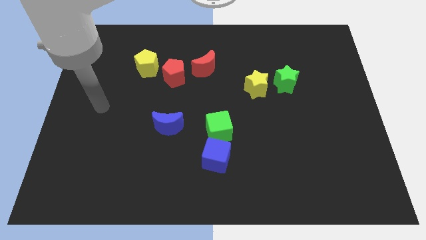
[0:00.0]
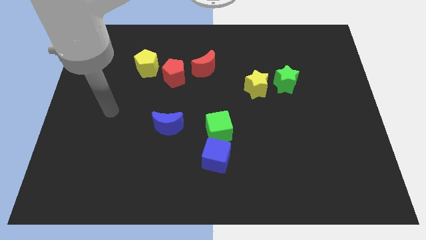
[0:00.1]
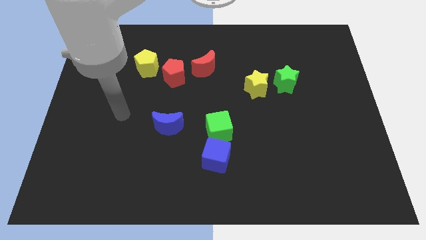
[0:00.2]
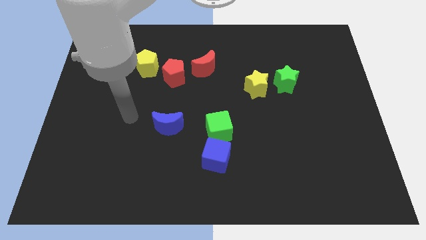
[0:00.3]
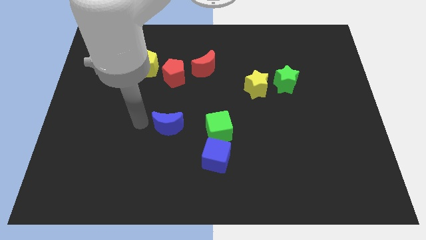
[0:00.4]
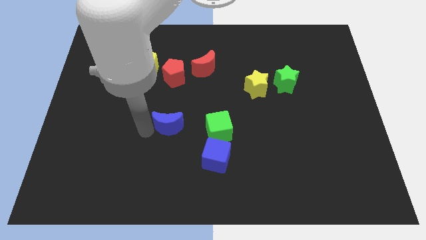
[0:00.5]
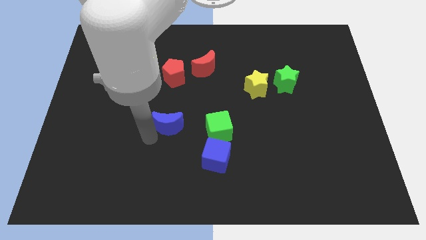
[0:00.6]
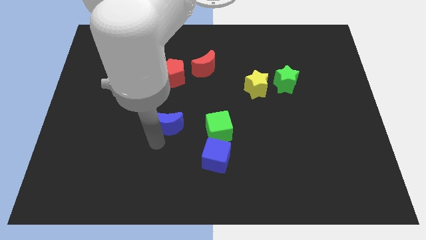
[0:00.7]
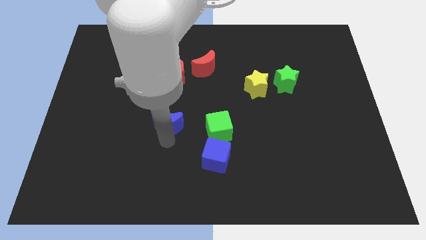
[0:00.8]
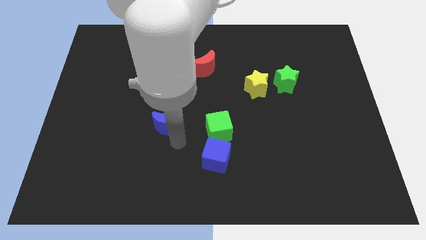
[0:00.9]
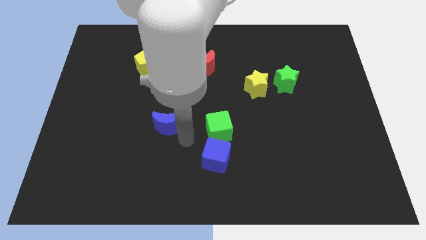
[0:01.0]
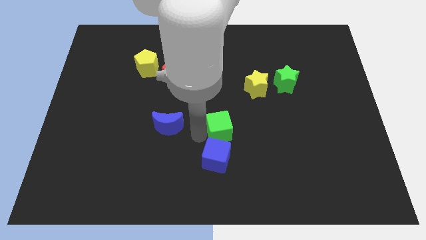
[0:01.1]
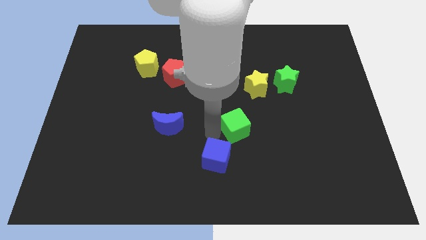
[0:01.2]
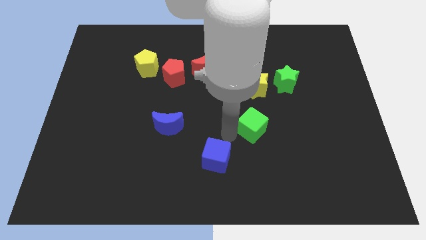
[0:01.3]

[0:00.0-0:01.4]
pull the blue cube apart from the green cube

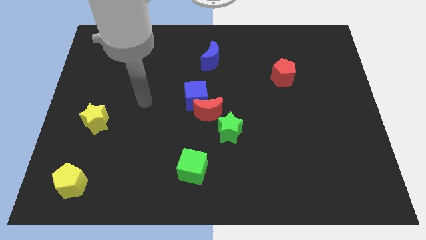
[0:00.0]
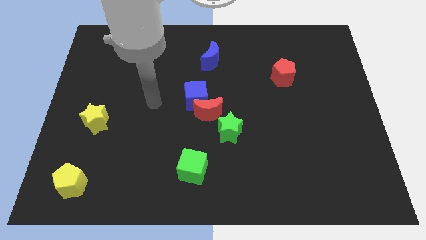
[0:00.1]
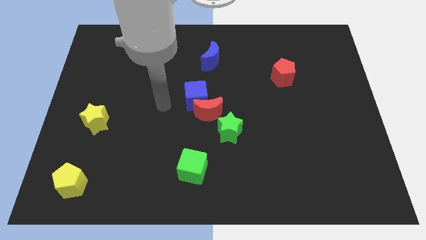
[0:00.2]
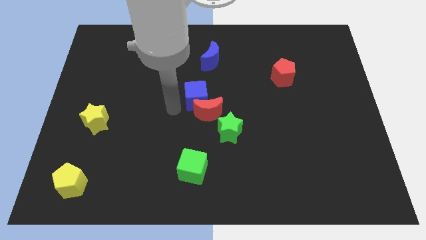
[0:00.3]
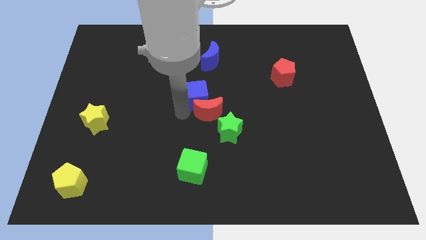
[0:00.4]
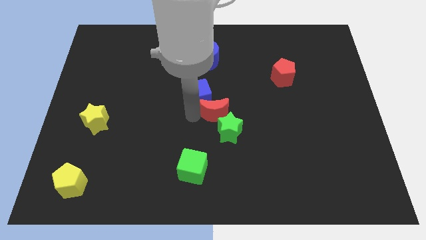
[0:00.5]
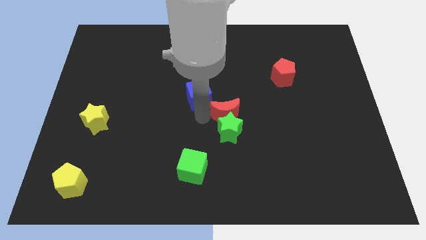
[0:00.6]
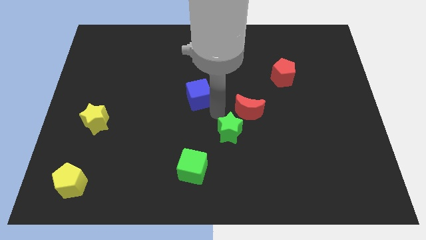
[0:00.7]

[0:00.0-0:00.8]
separate the blue cube from the red moon

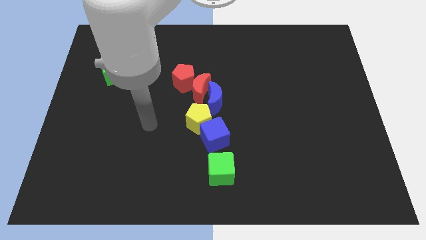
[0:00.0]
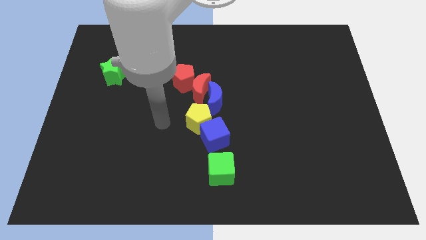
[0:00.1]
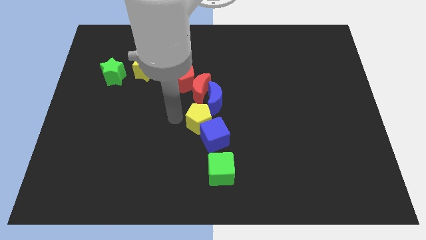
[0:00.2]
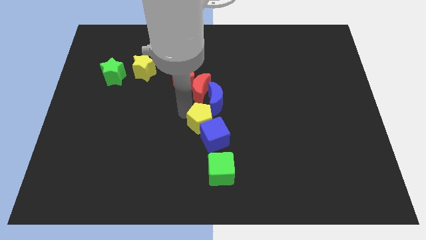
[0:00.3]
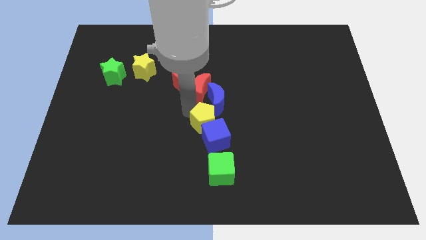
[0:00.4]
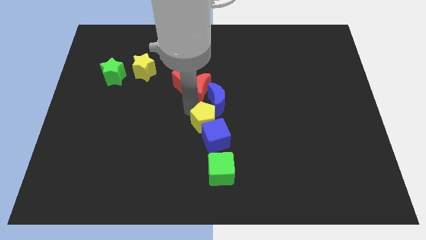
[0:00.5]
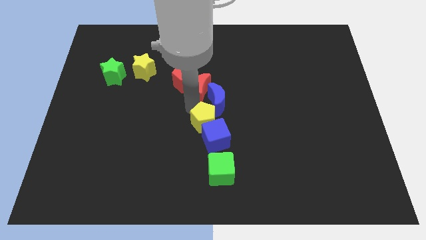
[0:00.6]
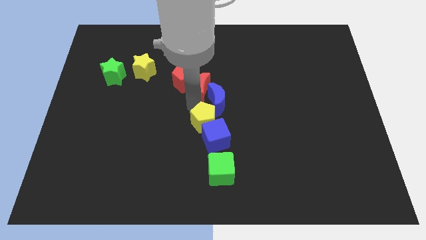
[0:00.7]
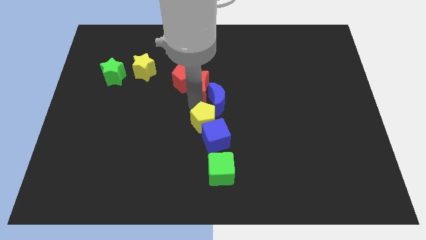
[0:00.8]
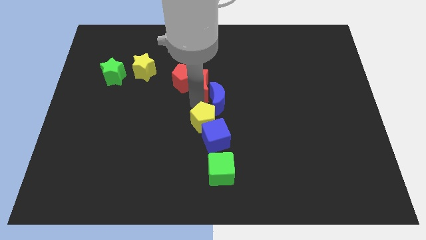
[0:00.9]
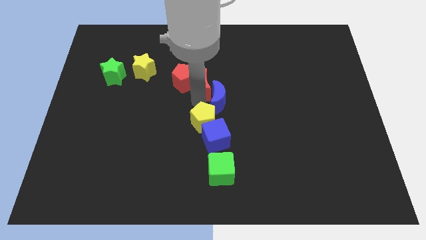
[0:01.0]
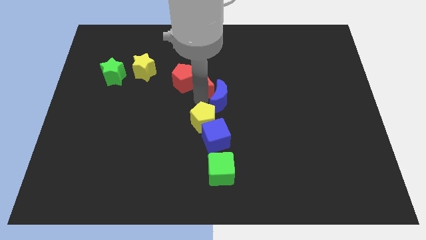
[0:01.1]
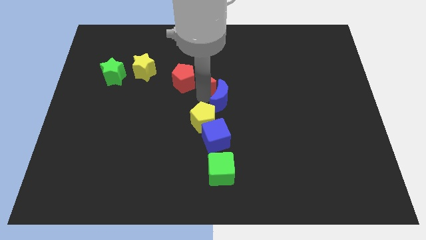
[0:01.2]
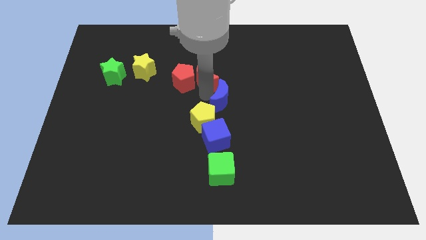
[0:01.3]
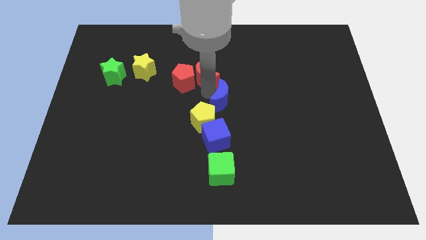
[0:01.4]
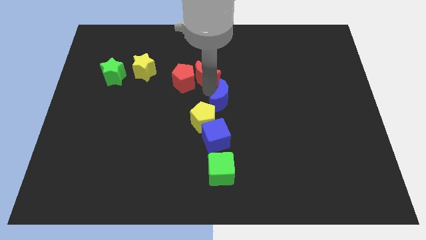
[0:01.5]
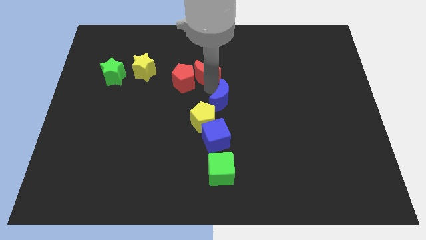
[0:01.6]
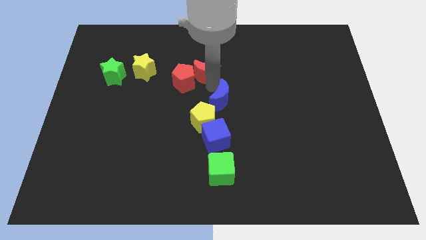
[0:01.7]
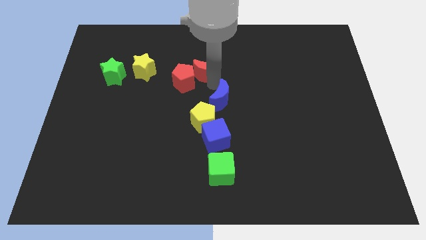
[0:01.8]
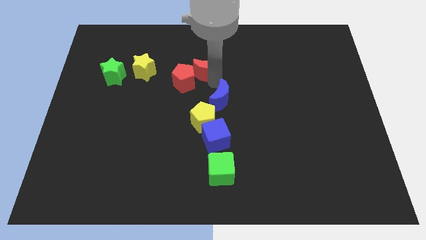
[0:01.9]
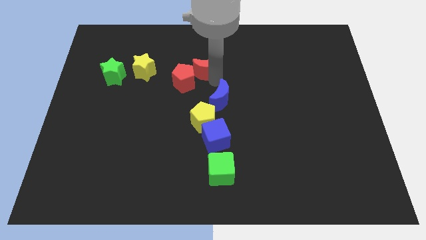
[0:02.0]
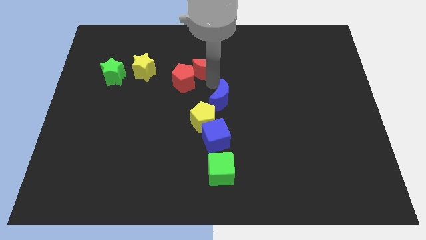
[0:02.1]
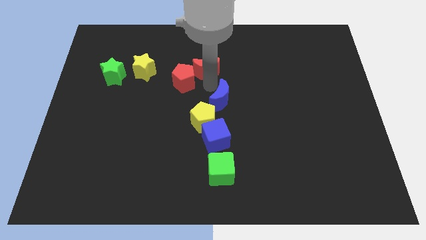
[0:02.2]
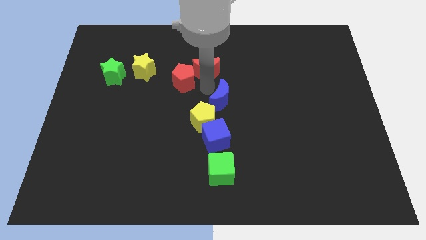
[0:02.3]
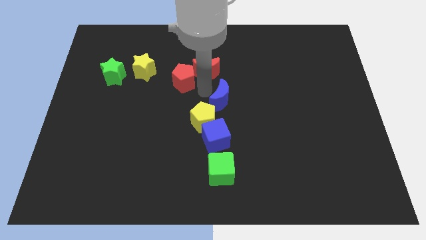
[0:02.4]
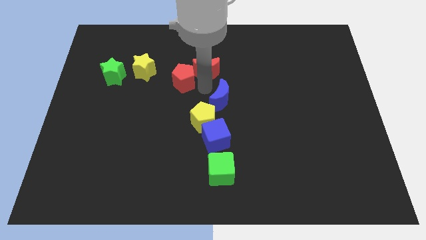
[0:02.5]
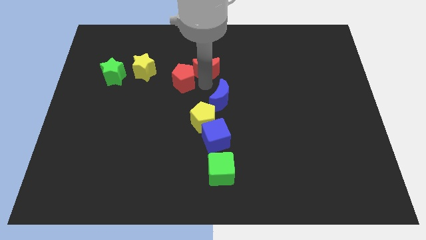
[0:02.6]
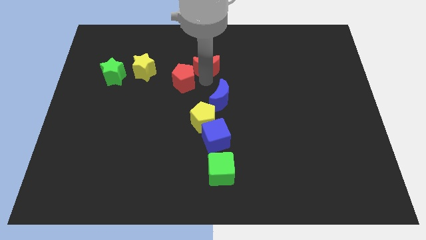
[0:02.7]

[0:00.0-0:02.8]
move the red moon away from the blue moon, red pentagon, and yellow pentagon

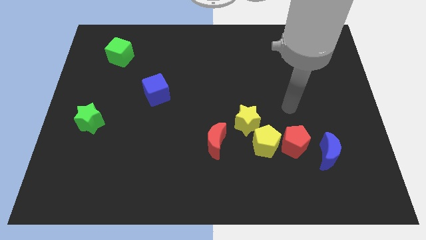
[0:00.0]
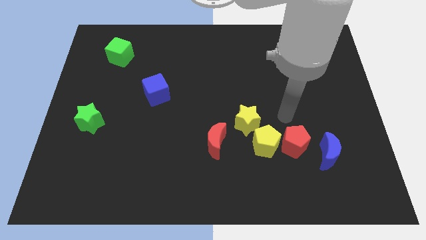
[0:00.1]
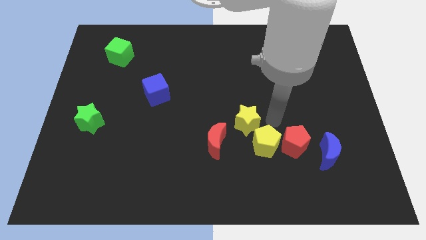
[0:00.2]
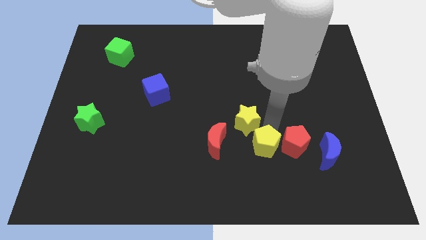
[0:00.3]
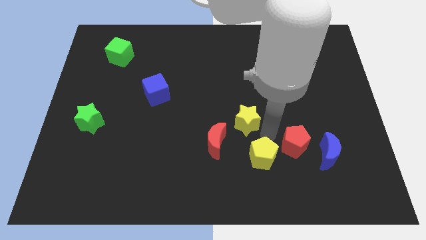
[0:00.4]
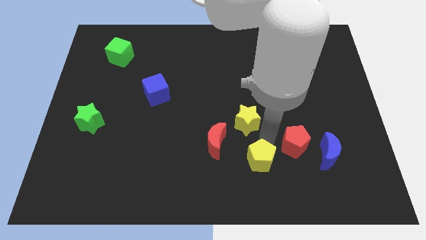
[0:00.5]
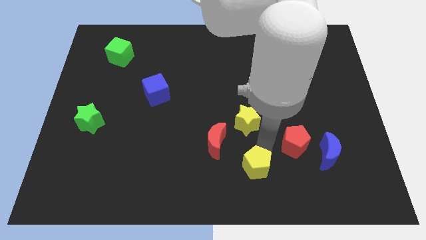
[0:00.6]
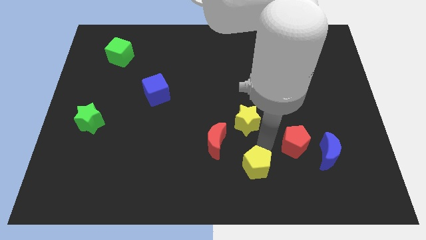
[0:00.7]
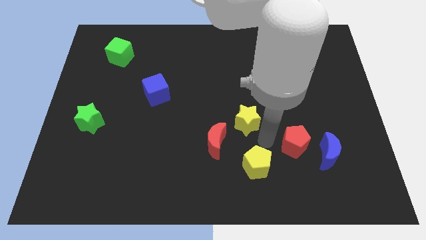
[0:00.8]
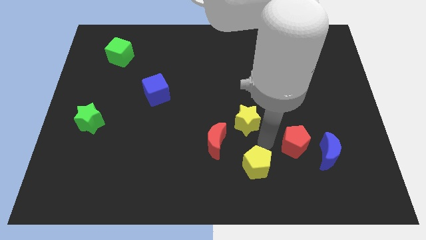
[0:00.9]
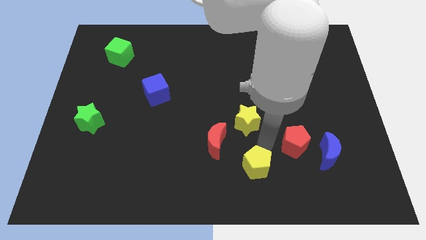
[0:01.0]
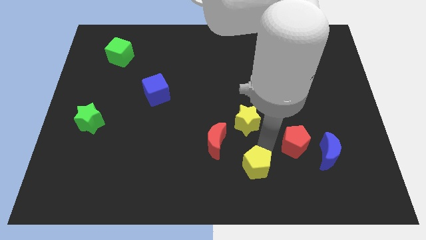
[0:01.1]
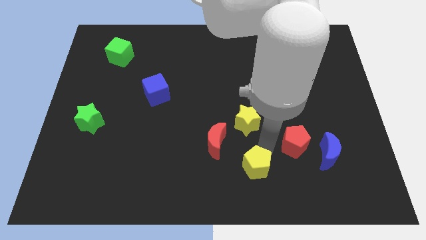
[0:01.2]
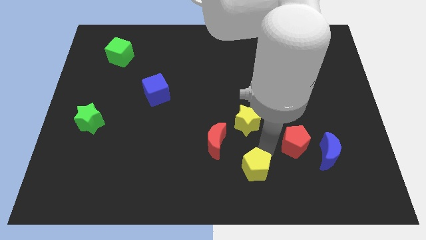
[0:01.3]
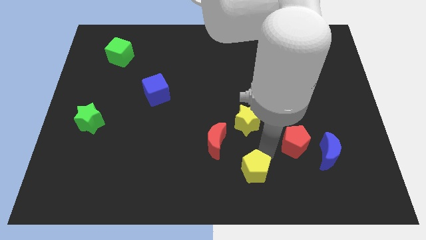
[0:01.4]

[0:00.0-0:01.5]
move the yellow pentagon away from the red pentagon and yellow star

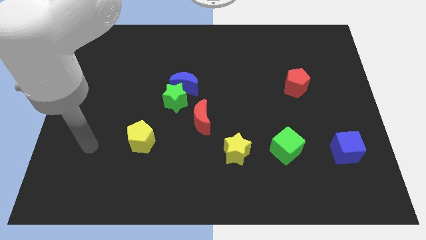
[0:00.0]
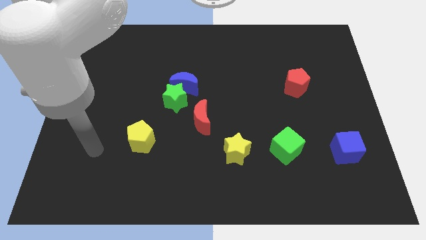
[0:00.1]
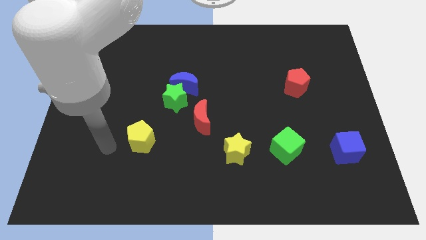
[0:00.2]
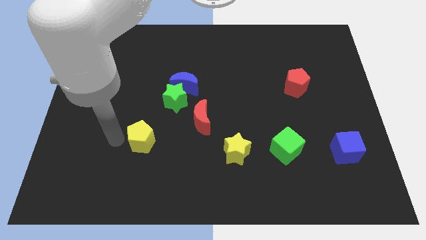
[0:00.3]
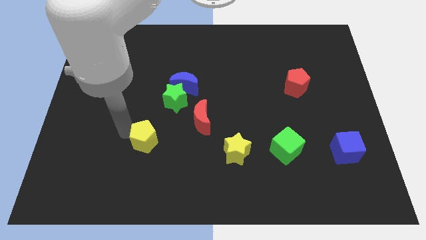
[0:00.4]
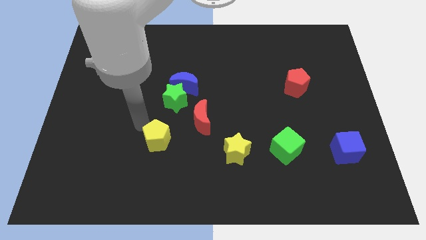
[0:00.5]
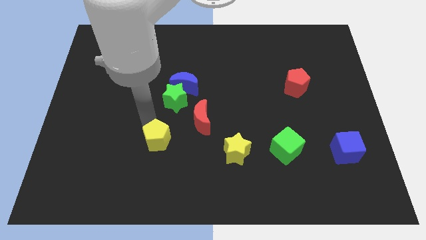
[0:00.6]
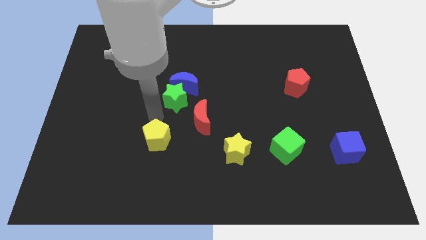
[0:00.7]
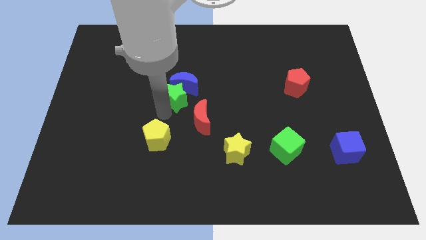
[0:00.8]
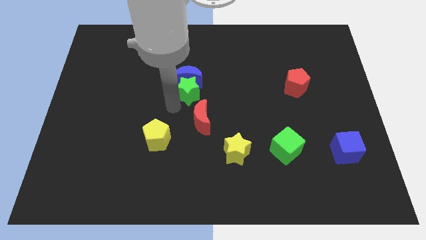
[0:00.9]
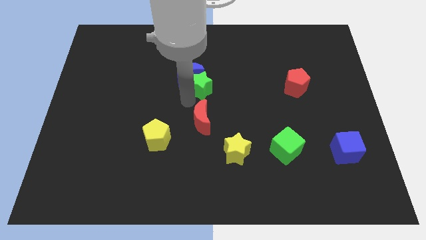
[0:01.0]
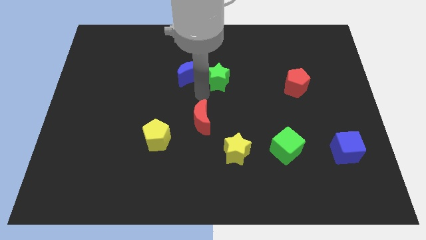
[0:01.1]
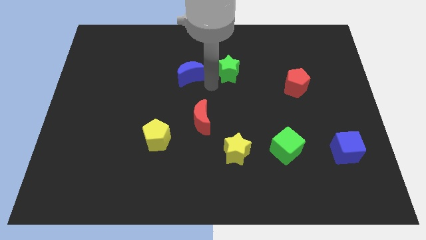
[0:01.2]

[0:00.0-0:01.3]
separate the blue moon from the green star

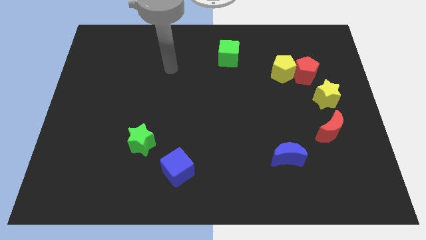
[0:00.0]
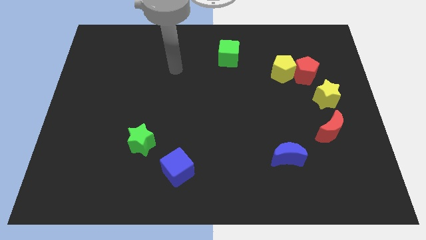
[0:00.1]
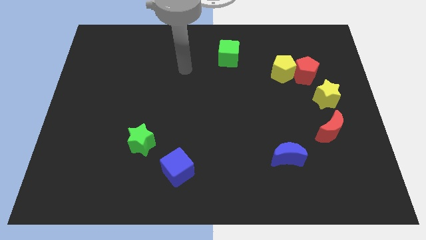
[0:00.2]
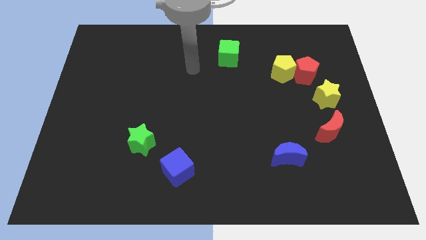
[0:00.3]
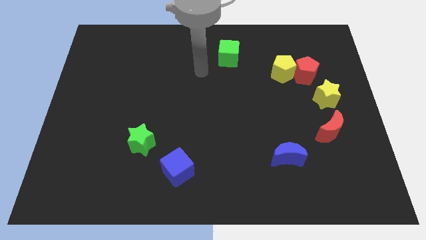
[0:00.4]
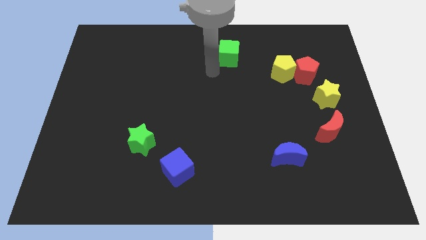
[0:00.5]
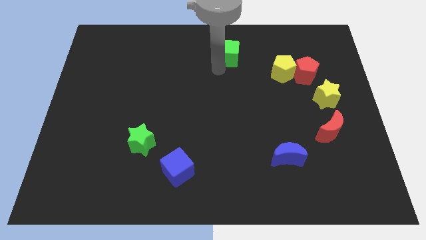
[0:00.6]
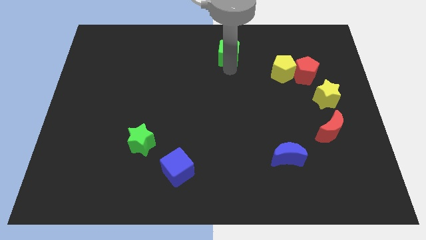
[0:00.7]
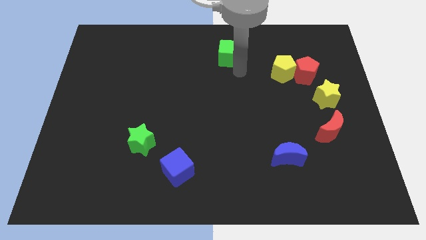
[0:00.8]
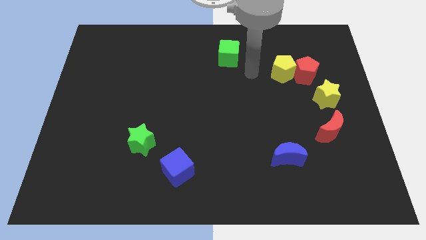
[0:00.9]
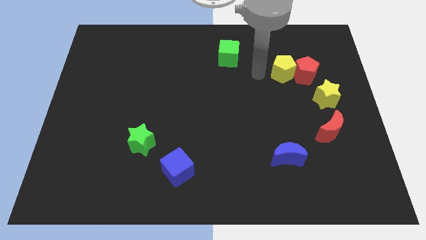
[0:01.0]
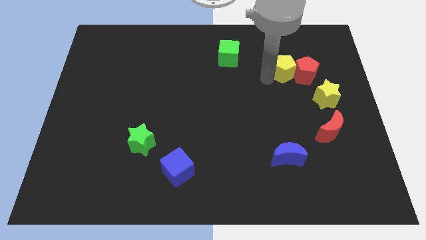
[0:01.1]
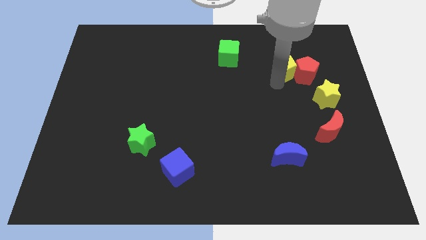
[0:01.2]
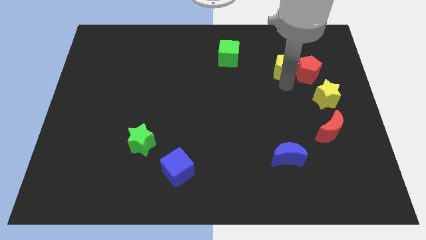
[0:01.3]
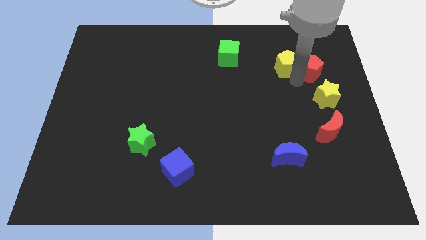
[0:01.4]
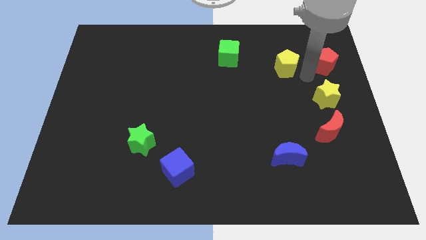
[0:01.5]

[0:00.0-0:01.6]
move the yellow pentagon away from the red pentagon
